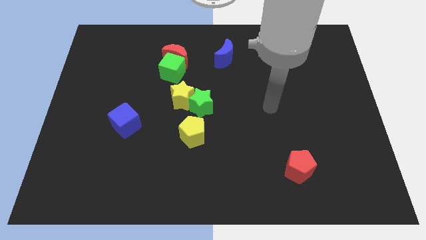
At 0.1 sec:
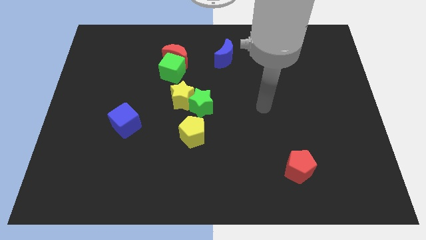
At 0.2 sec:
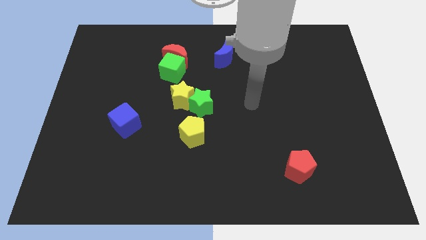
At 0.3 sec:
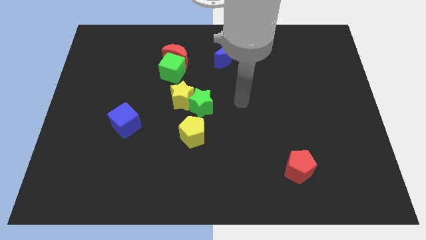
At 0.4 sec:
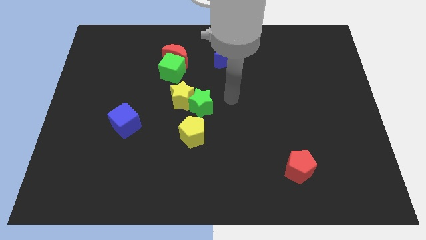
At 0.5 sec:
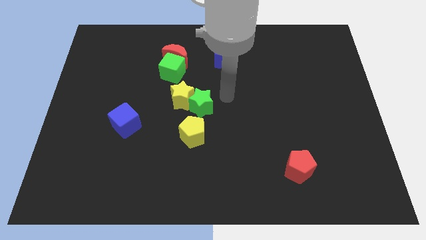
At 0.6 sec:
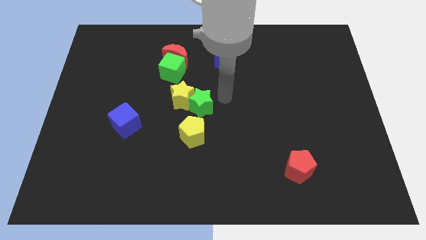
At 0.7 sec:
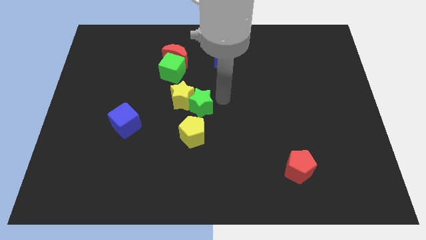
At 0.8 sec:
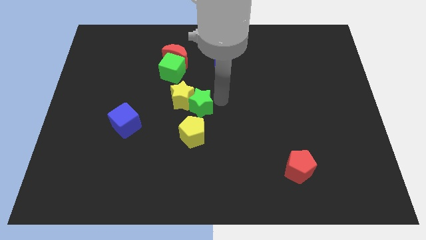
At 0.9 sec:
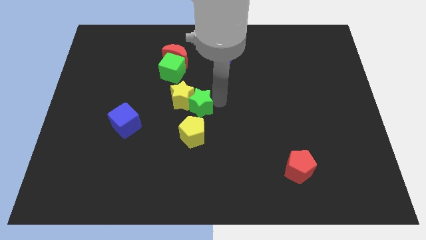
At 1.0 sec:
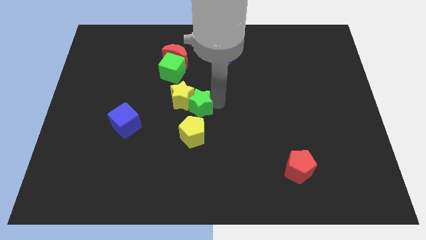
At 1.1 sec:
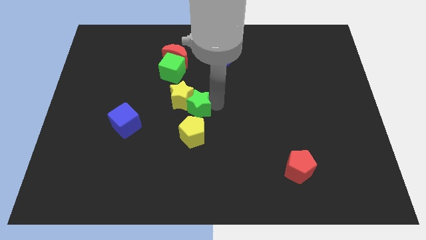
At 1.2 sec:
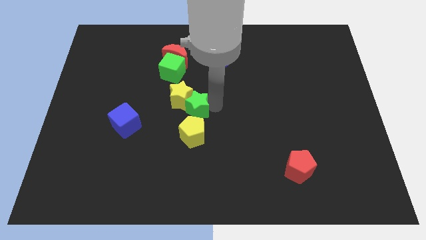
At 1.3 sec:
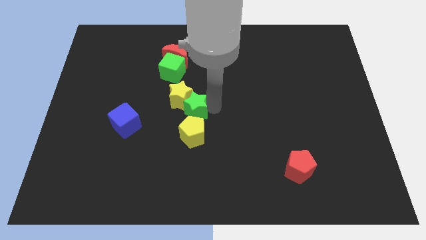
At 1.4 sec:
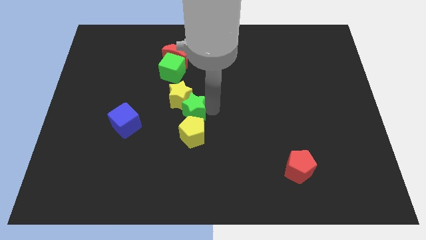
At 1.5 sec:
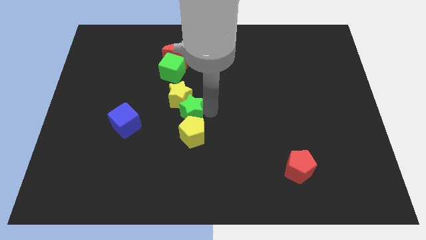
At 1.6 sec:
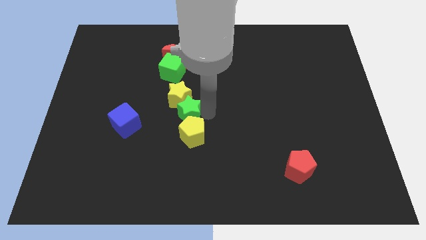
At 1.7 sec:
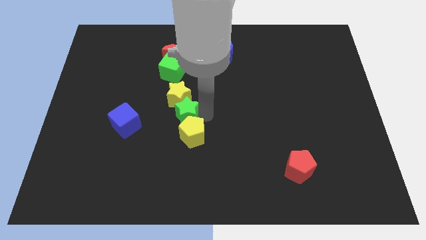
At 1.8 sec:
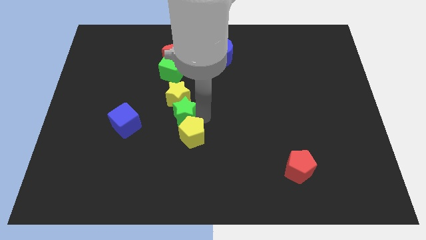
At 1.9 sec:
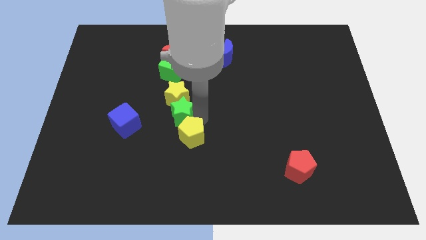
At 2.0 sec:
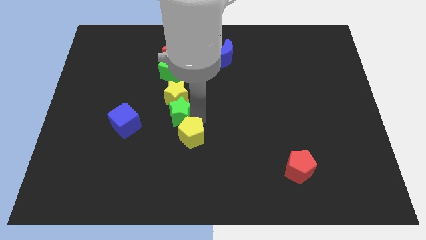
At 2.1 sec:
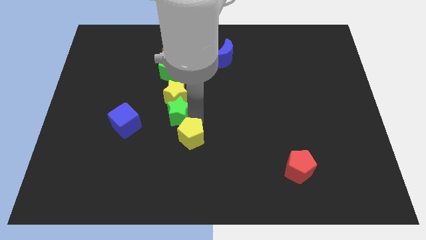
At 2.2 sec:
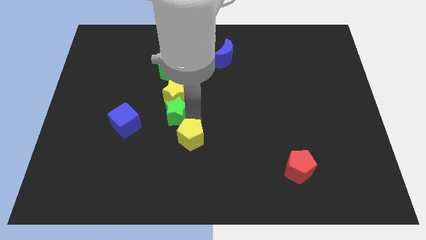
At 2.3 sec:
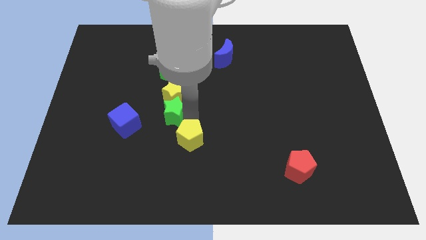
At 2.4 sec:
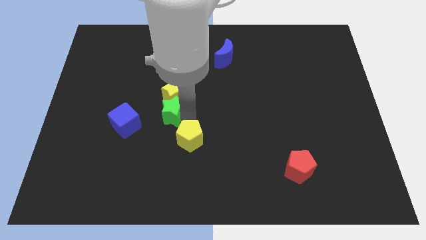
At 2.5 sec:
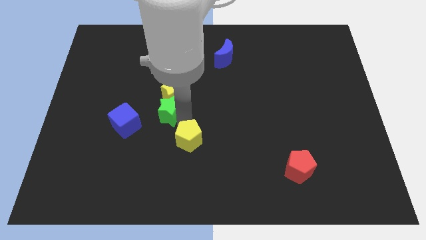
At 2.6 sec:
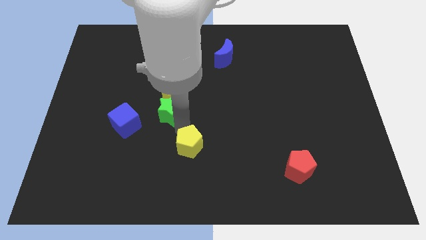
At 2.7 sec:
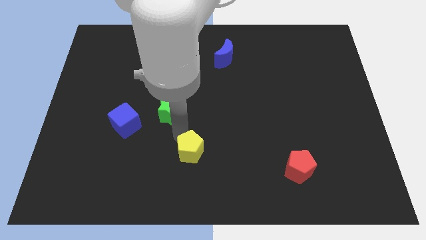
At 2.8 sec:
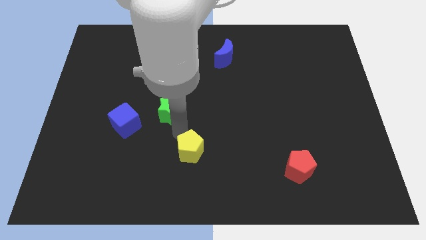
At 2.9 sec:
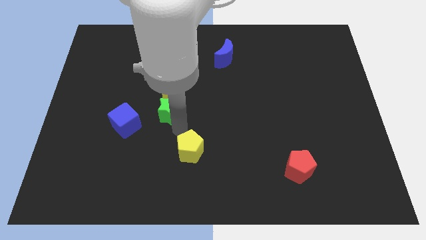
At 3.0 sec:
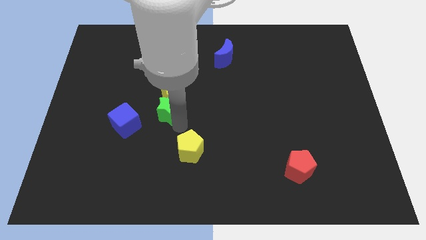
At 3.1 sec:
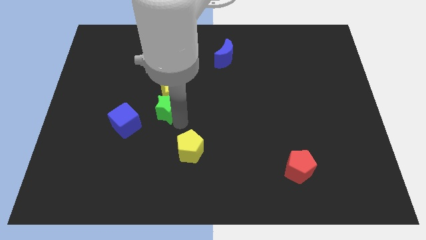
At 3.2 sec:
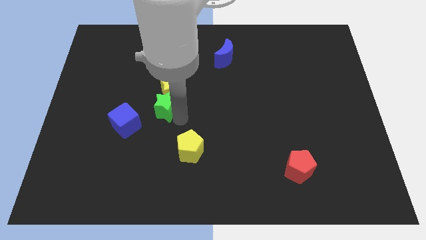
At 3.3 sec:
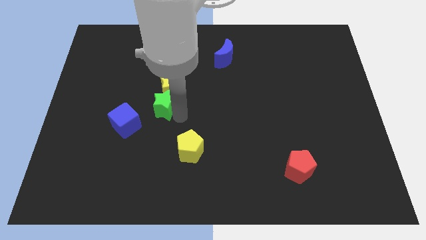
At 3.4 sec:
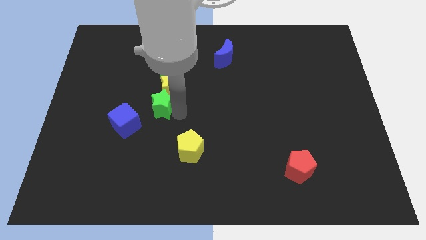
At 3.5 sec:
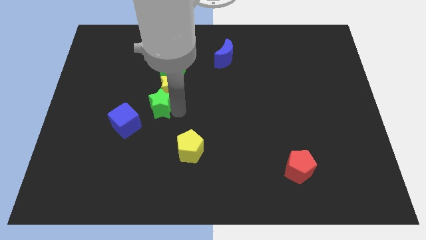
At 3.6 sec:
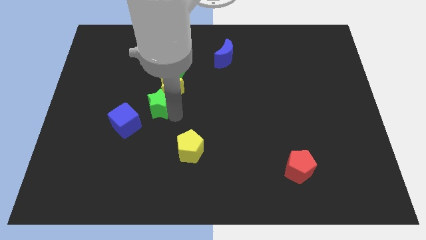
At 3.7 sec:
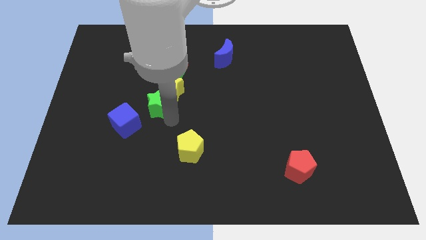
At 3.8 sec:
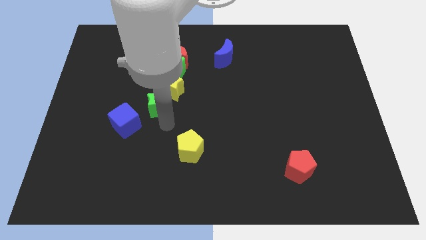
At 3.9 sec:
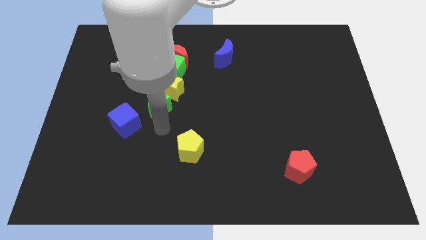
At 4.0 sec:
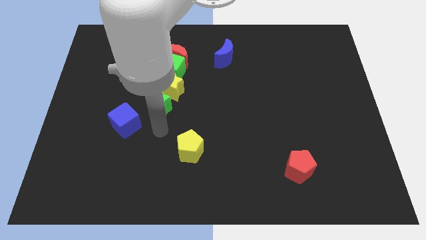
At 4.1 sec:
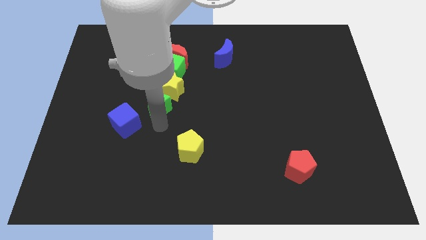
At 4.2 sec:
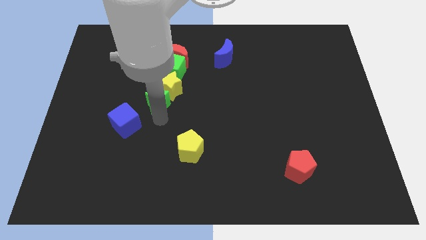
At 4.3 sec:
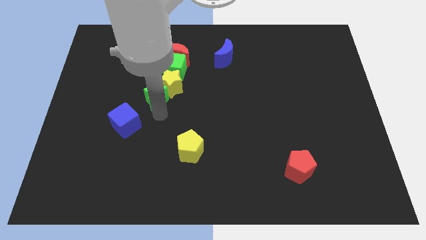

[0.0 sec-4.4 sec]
slightly push the green star upwards and then left

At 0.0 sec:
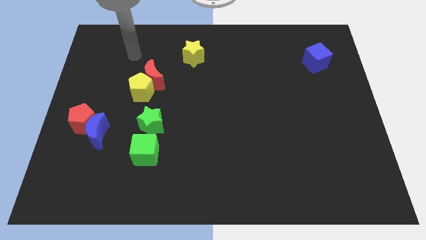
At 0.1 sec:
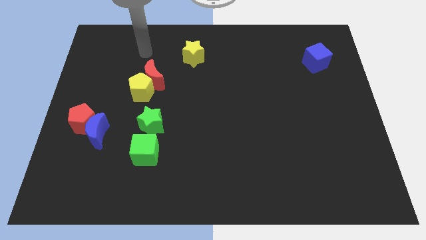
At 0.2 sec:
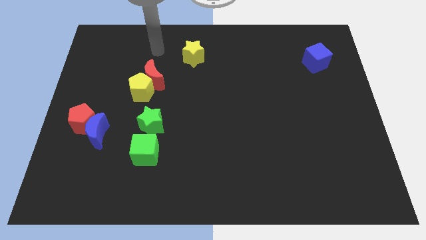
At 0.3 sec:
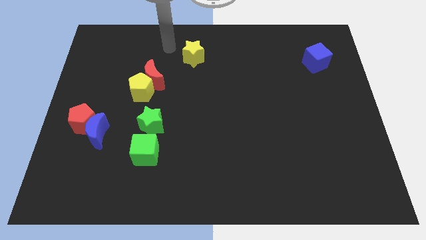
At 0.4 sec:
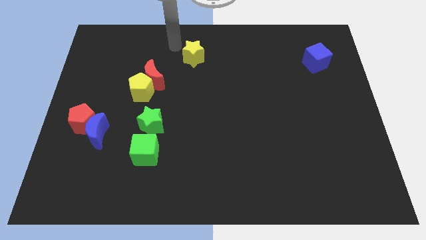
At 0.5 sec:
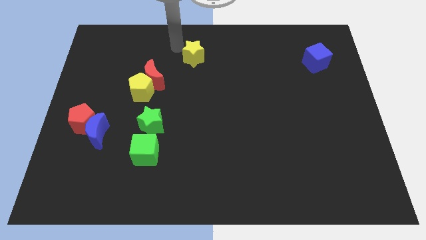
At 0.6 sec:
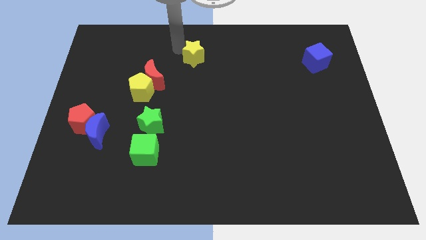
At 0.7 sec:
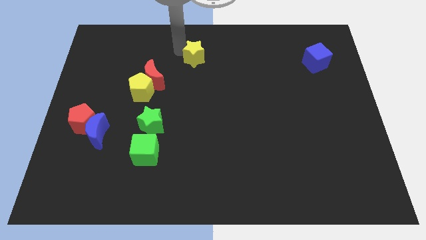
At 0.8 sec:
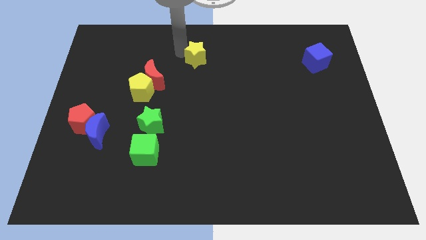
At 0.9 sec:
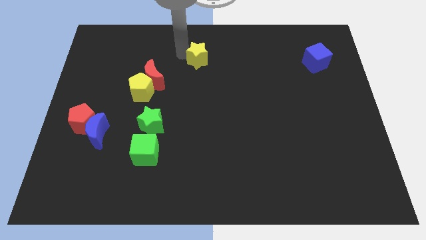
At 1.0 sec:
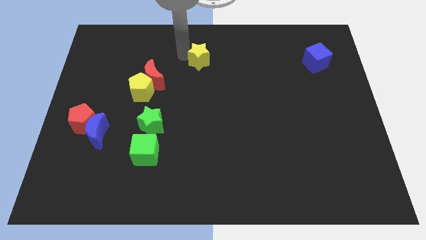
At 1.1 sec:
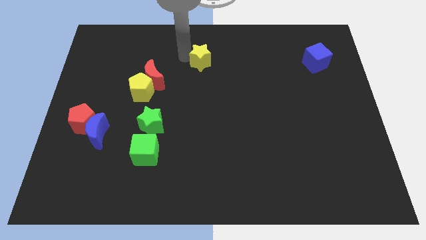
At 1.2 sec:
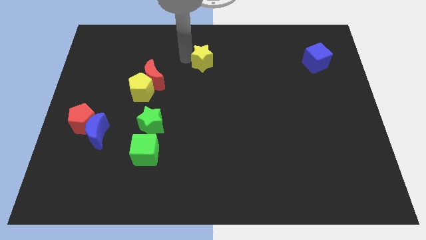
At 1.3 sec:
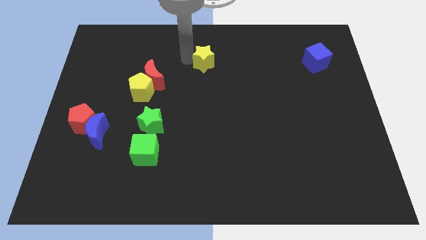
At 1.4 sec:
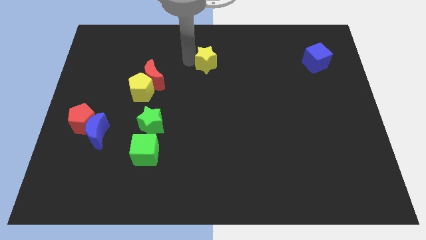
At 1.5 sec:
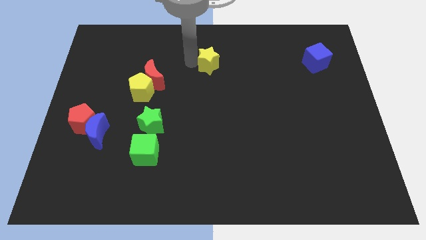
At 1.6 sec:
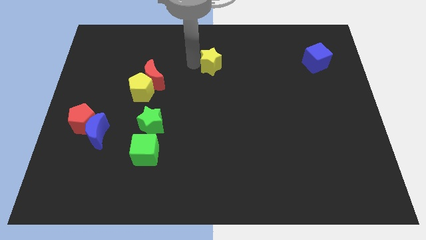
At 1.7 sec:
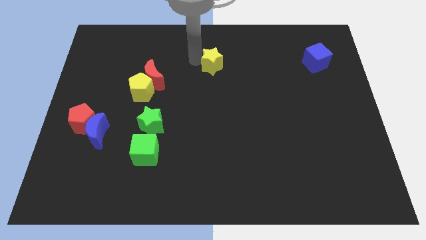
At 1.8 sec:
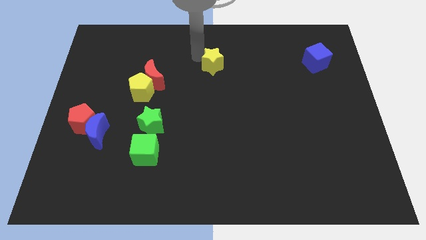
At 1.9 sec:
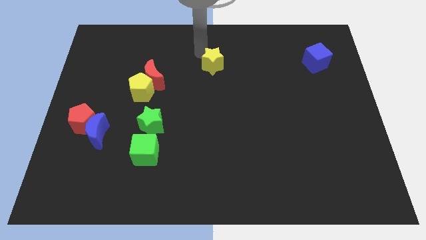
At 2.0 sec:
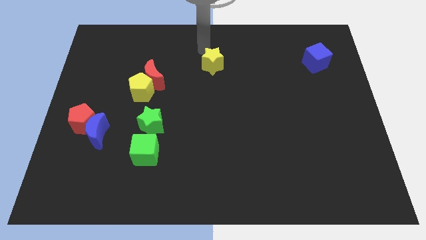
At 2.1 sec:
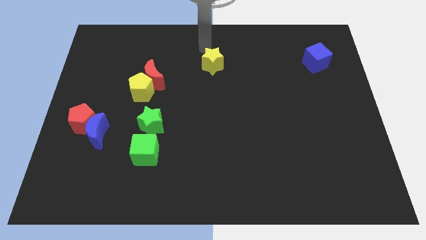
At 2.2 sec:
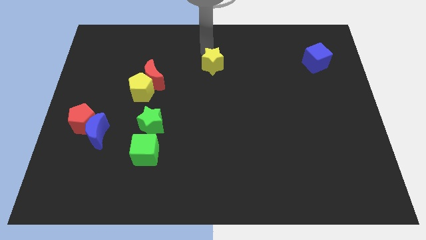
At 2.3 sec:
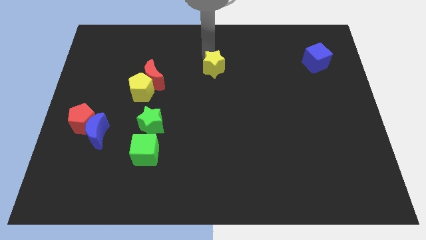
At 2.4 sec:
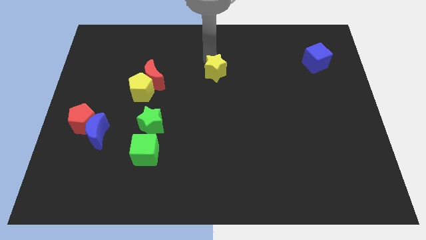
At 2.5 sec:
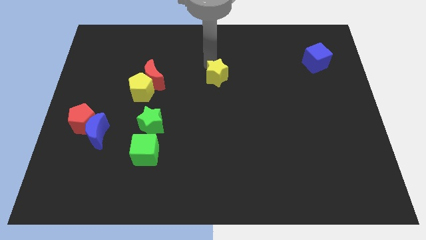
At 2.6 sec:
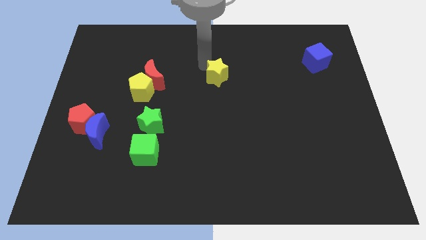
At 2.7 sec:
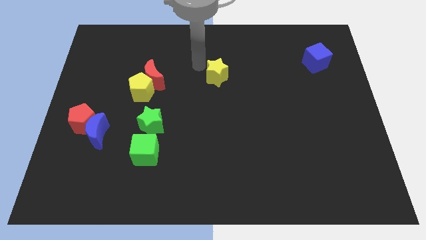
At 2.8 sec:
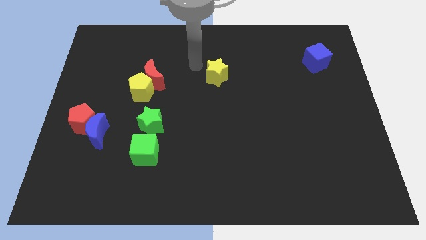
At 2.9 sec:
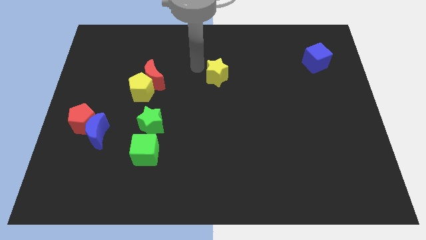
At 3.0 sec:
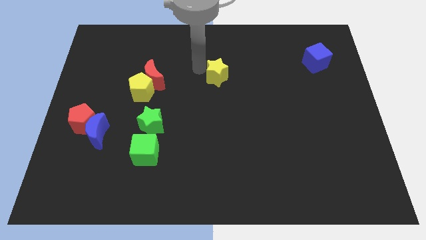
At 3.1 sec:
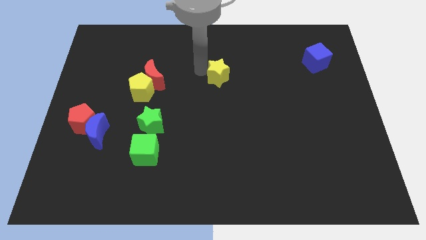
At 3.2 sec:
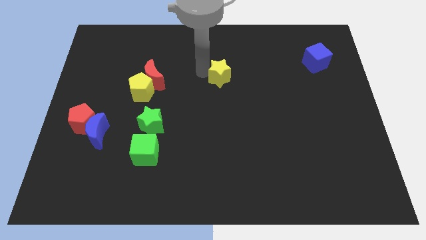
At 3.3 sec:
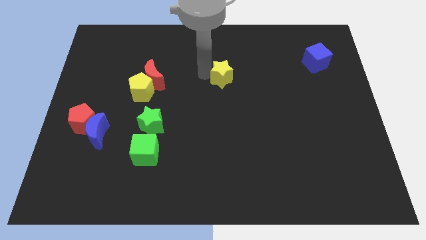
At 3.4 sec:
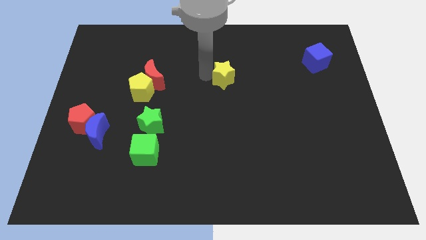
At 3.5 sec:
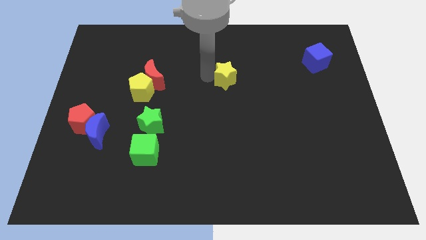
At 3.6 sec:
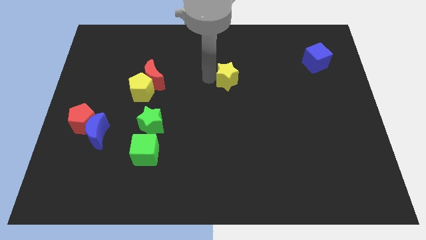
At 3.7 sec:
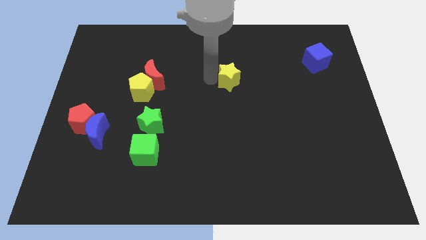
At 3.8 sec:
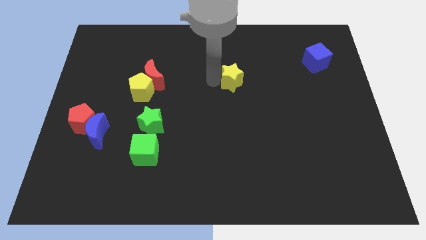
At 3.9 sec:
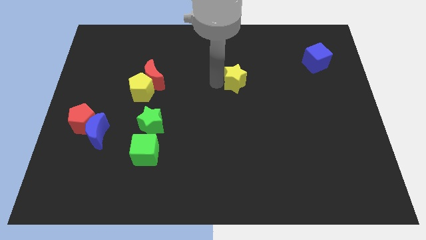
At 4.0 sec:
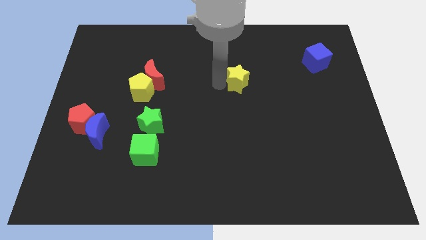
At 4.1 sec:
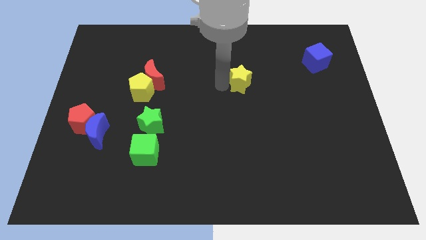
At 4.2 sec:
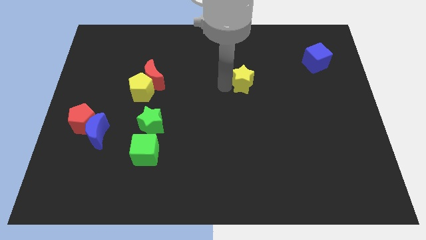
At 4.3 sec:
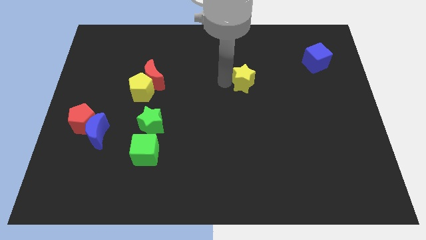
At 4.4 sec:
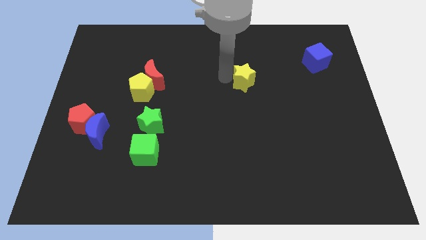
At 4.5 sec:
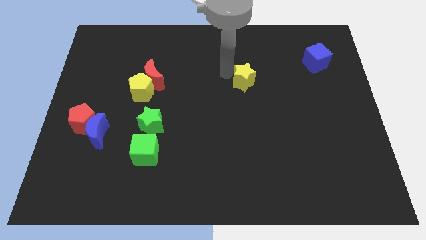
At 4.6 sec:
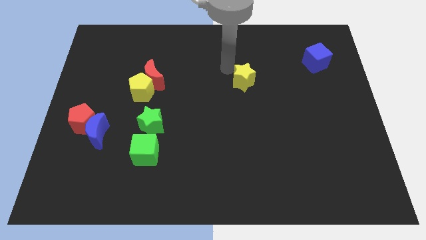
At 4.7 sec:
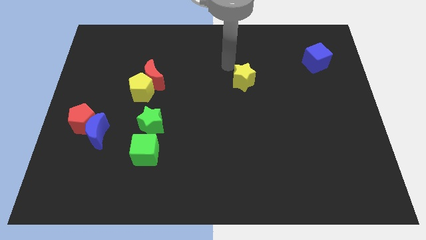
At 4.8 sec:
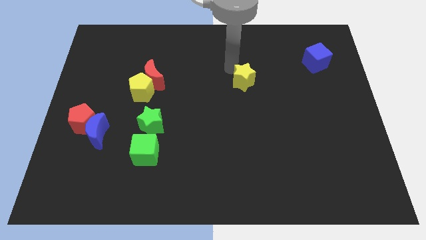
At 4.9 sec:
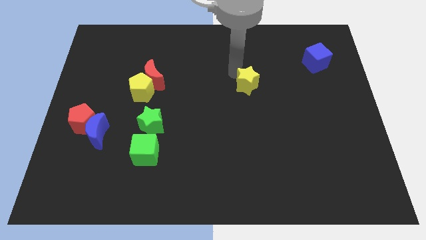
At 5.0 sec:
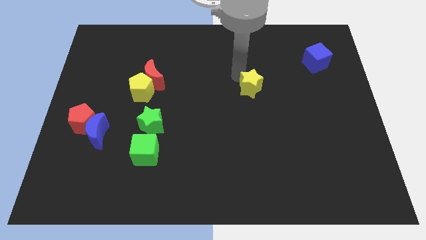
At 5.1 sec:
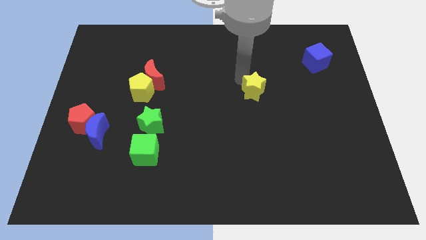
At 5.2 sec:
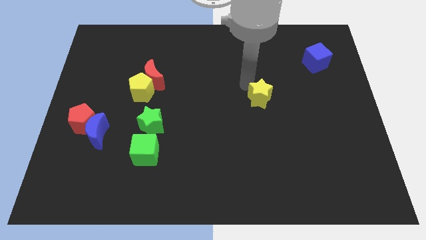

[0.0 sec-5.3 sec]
push the yellow star down and right diagonally
